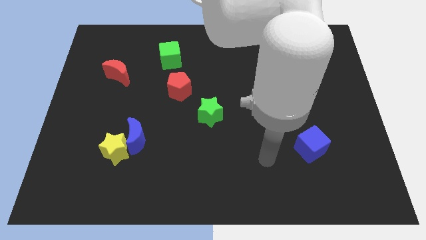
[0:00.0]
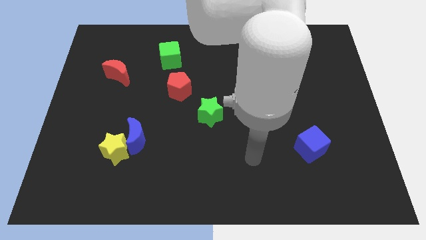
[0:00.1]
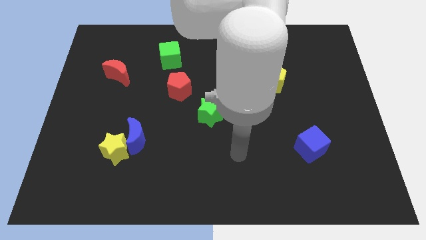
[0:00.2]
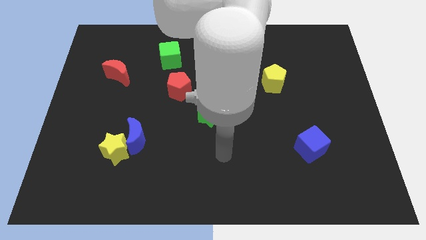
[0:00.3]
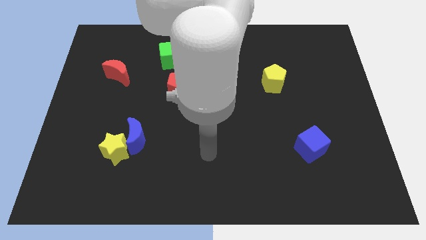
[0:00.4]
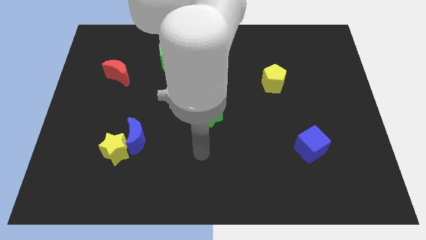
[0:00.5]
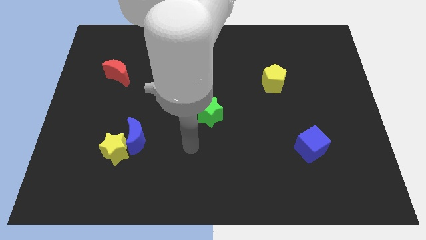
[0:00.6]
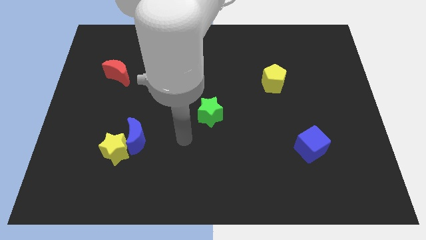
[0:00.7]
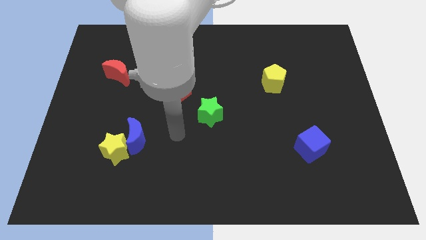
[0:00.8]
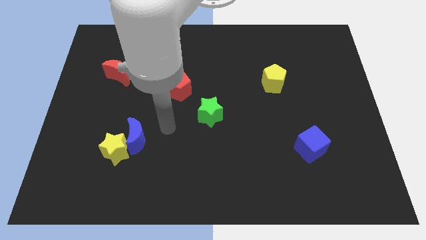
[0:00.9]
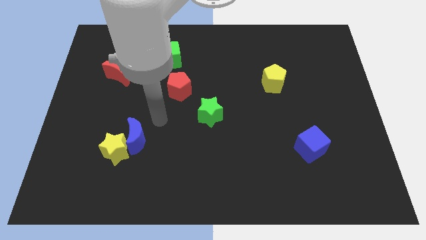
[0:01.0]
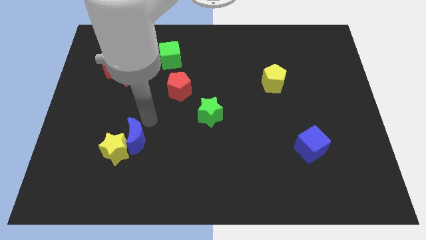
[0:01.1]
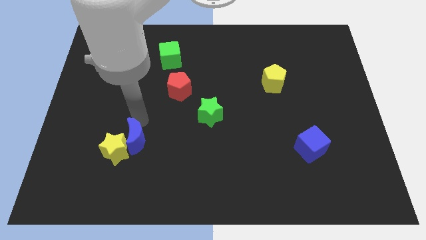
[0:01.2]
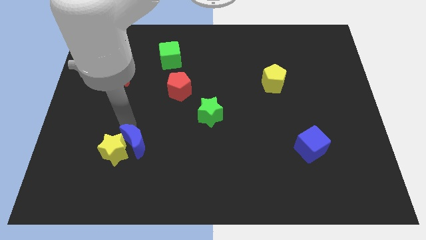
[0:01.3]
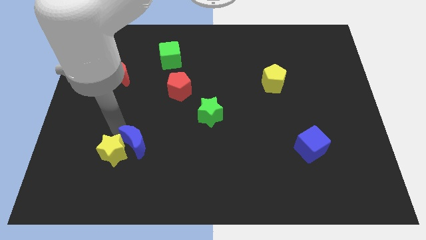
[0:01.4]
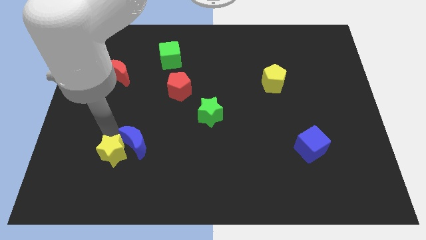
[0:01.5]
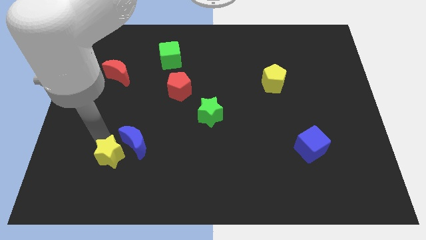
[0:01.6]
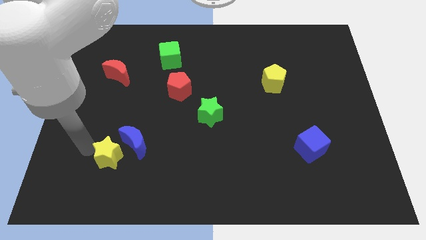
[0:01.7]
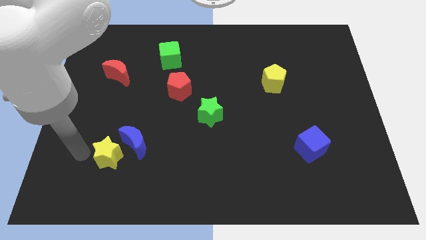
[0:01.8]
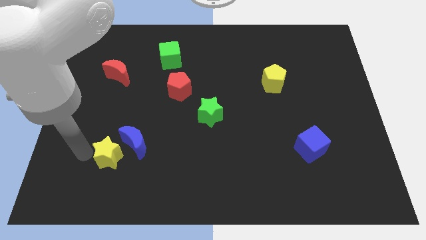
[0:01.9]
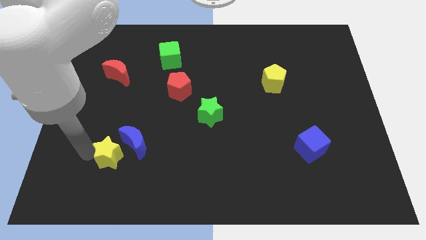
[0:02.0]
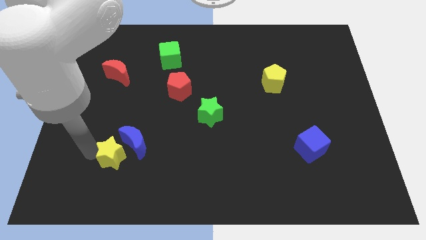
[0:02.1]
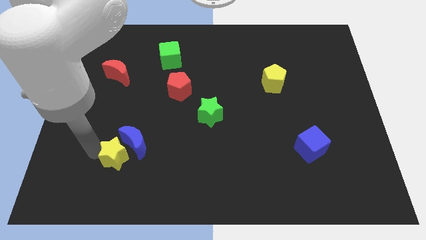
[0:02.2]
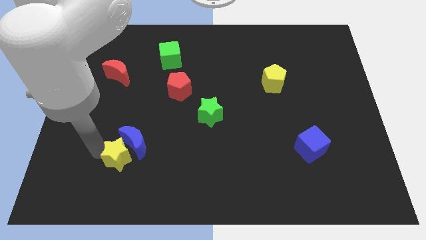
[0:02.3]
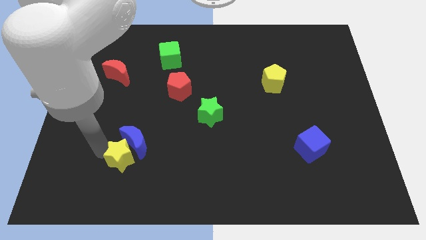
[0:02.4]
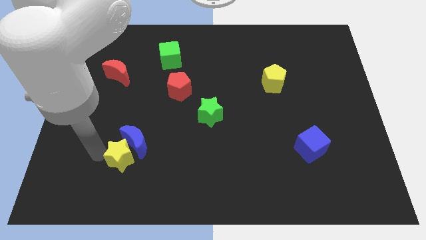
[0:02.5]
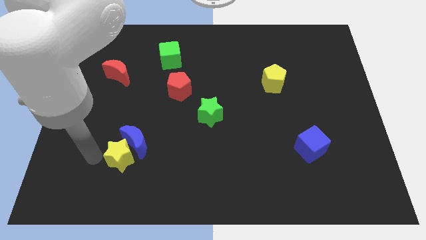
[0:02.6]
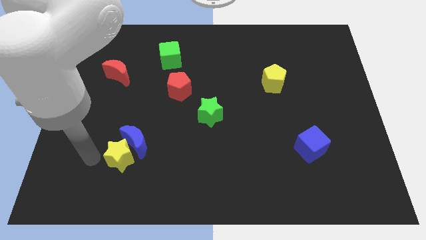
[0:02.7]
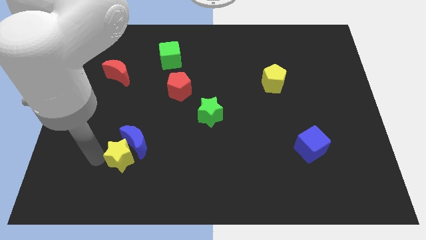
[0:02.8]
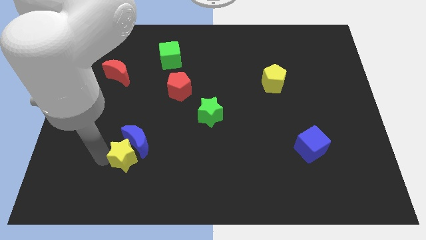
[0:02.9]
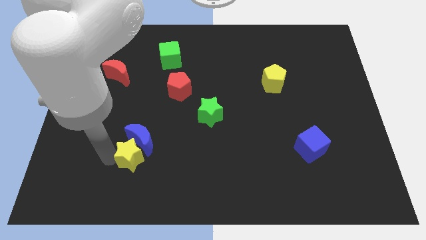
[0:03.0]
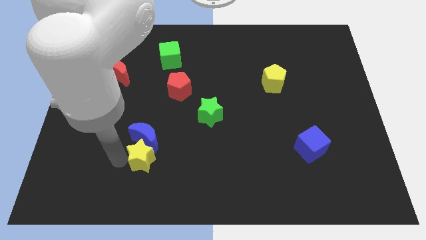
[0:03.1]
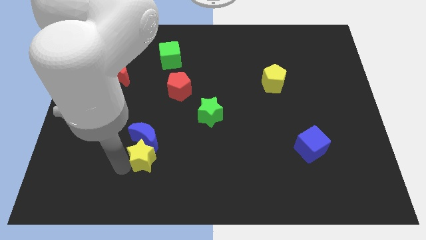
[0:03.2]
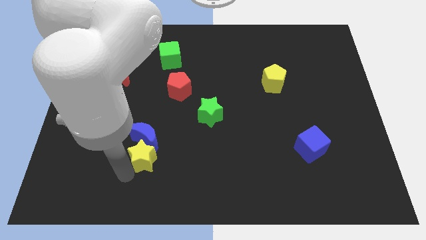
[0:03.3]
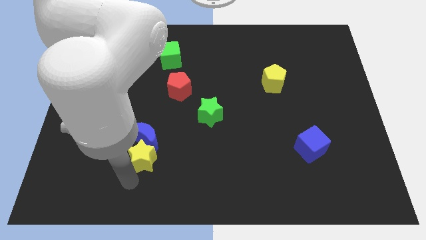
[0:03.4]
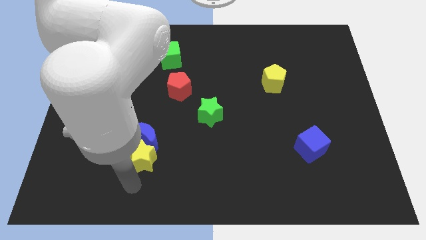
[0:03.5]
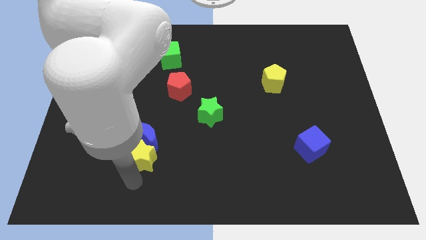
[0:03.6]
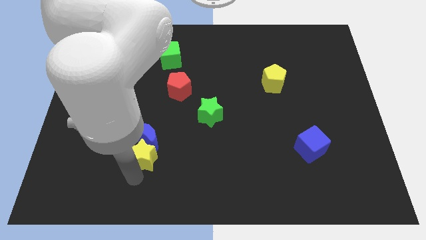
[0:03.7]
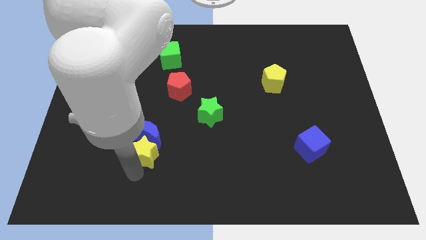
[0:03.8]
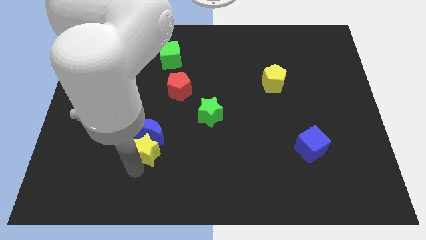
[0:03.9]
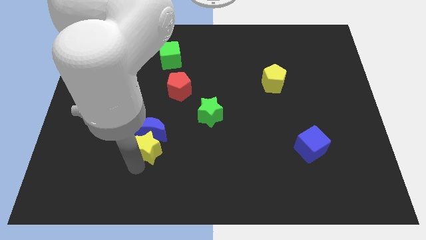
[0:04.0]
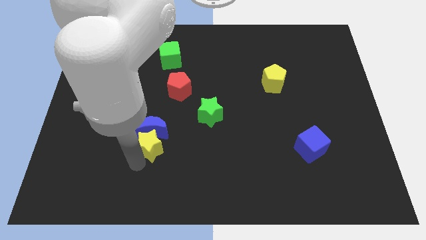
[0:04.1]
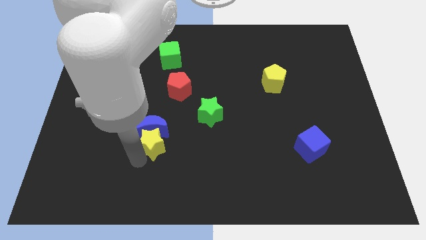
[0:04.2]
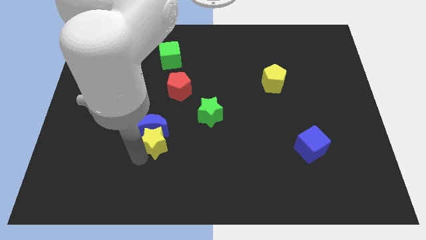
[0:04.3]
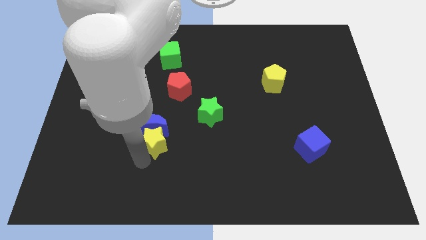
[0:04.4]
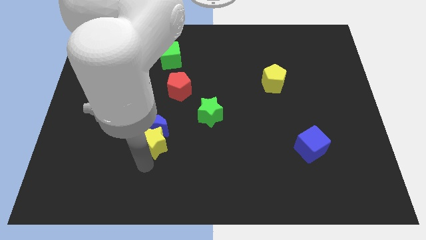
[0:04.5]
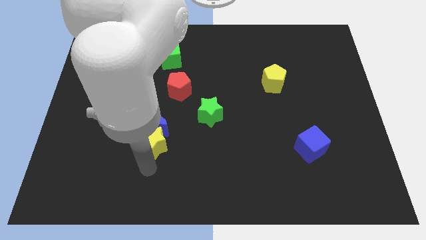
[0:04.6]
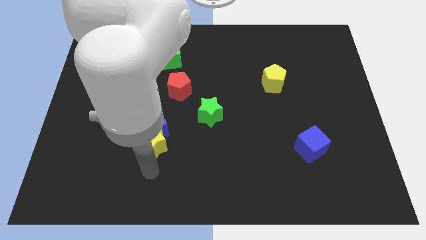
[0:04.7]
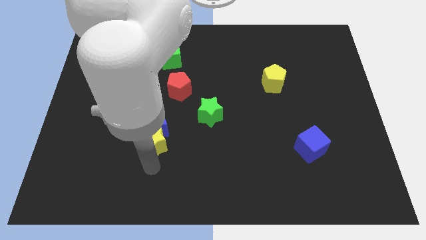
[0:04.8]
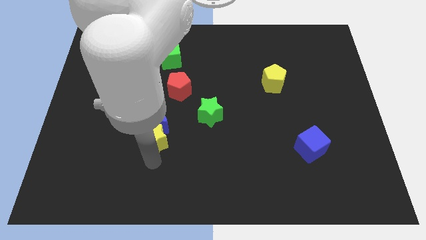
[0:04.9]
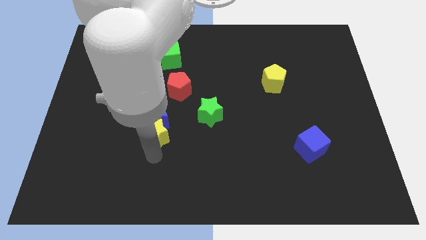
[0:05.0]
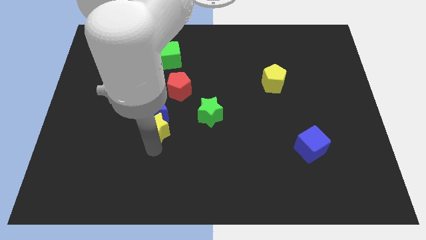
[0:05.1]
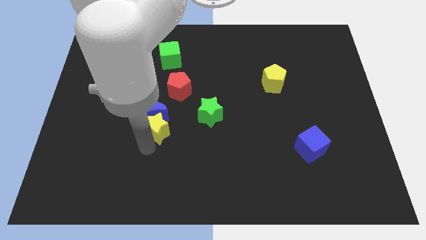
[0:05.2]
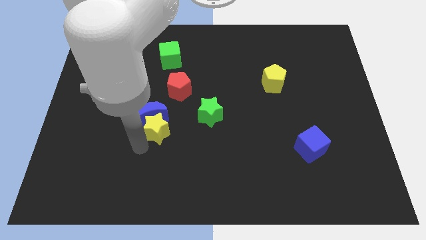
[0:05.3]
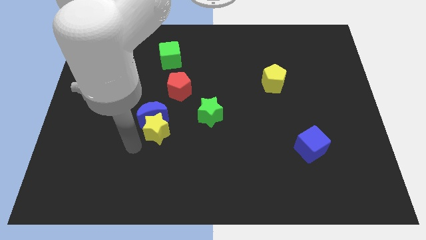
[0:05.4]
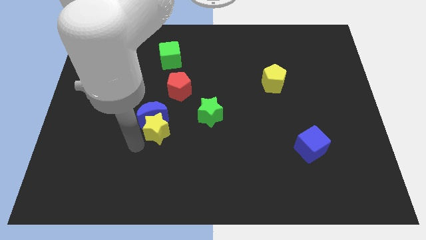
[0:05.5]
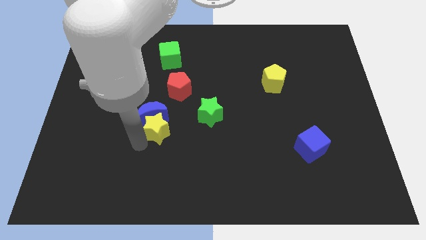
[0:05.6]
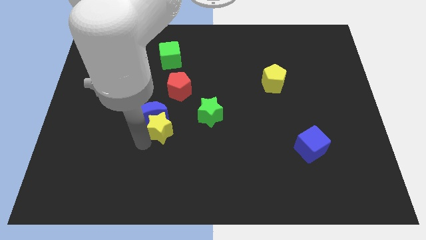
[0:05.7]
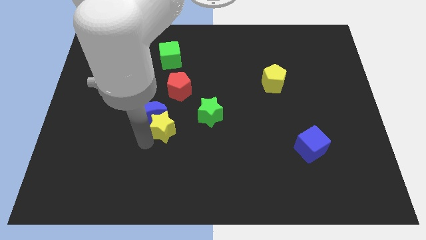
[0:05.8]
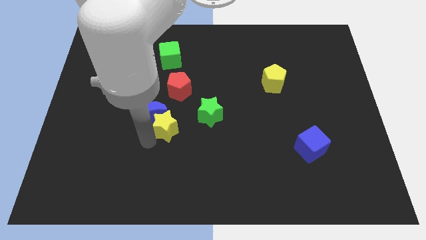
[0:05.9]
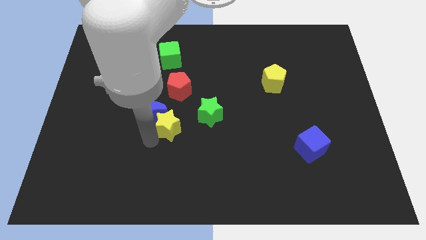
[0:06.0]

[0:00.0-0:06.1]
slide the yellow star to the center

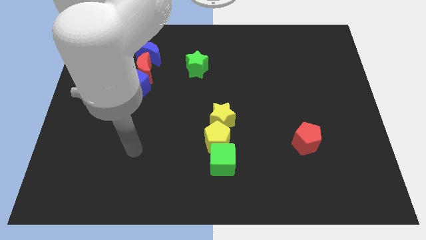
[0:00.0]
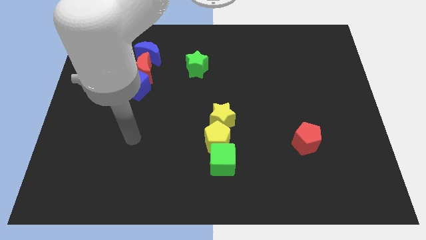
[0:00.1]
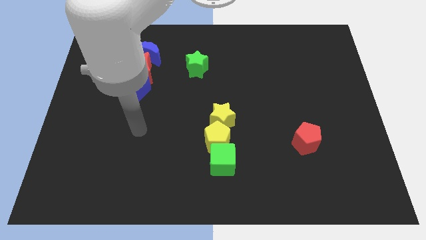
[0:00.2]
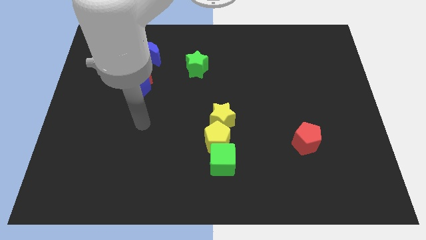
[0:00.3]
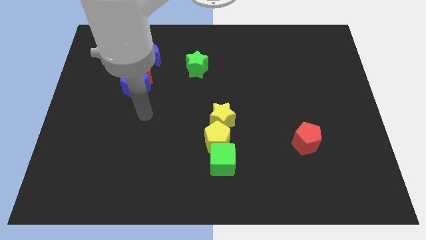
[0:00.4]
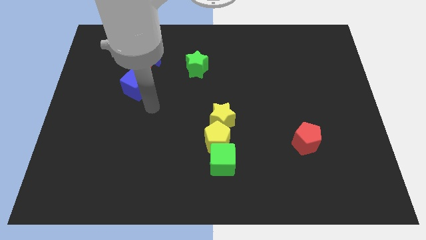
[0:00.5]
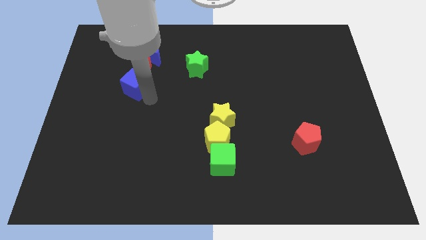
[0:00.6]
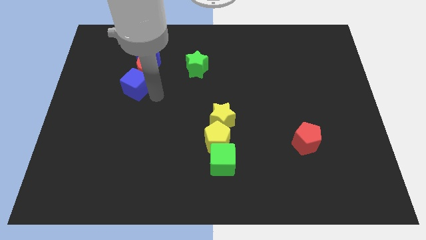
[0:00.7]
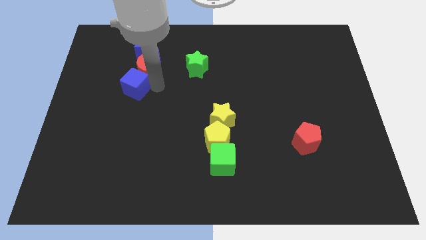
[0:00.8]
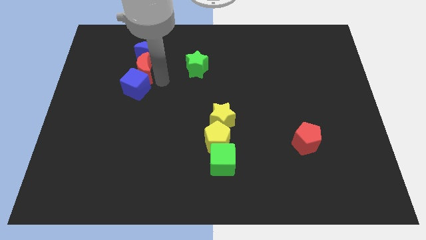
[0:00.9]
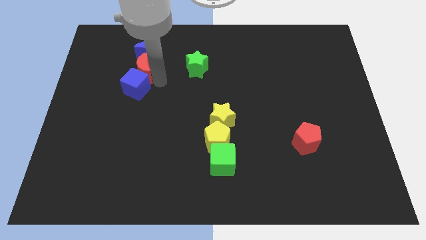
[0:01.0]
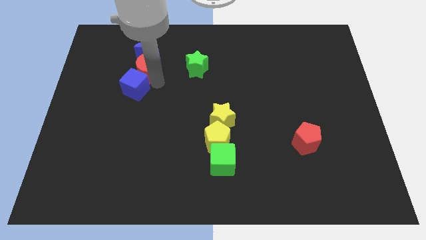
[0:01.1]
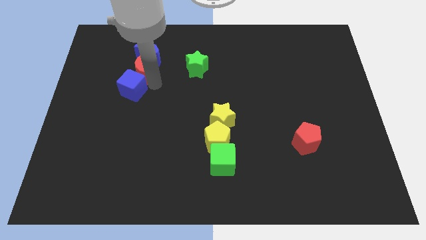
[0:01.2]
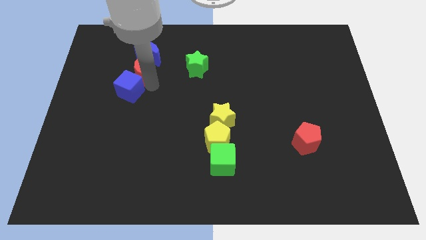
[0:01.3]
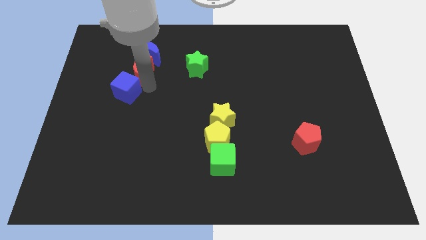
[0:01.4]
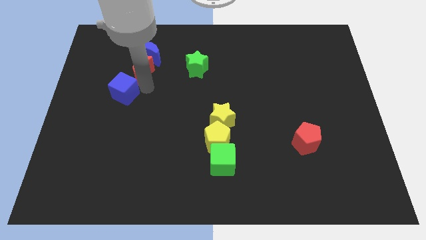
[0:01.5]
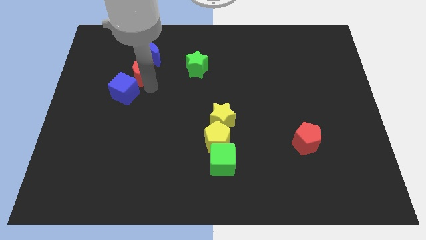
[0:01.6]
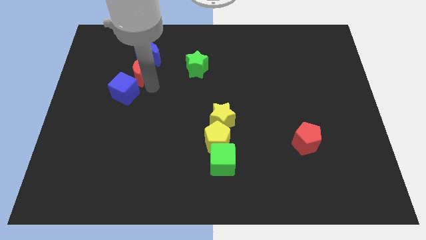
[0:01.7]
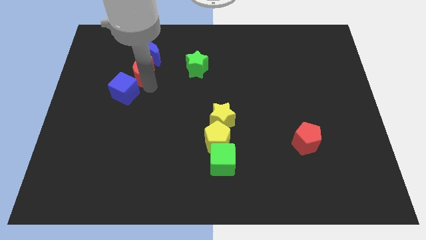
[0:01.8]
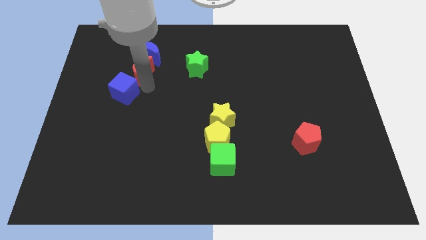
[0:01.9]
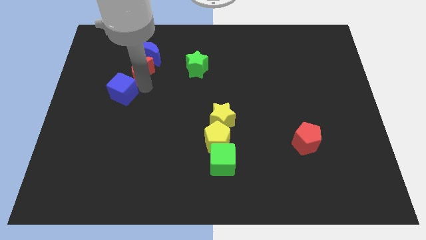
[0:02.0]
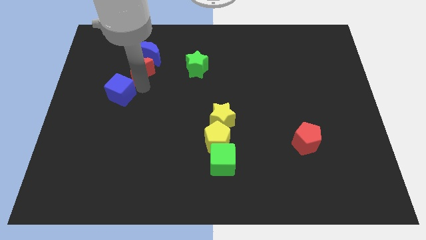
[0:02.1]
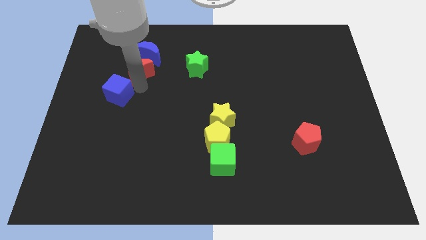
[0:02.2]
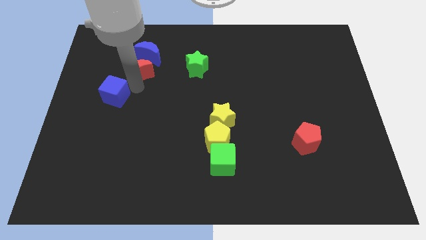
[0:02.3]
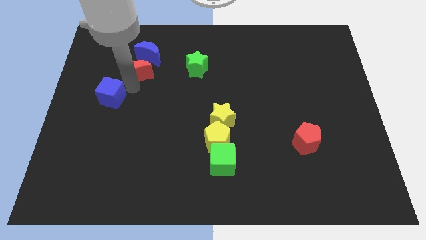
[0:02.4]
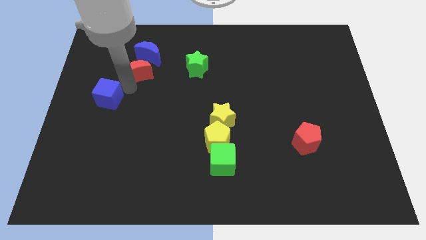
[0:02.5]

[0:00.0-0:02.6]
move the blue cube to the center left
